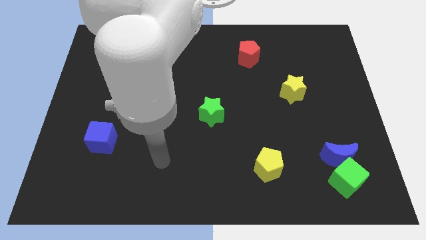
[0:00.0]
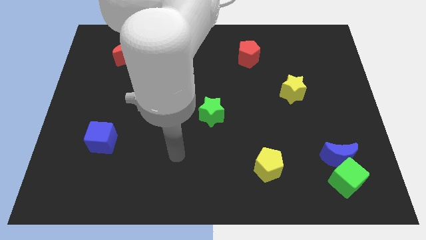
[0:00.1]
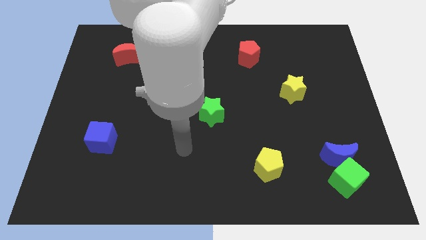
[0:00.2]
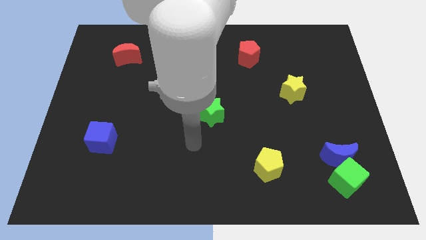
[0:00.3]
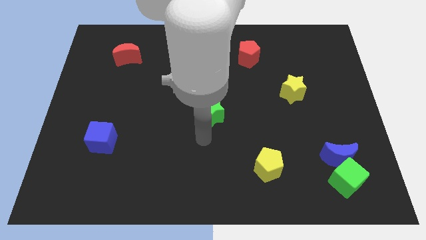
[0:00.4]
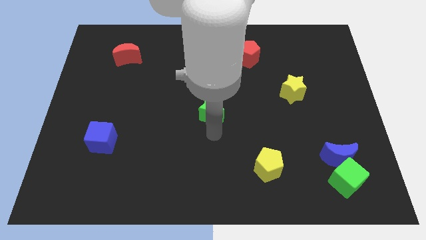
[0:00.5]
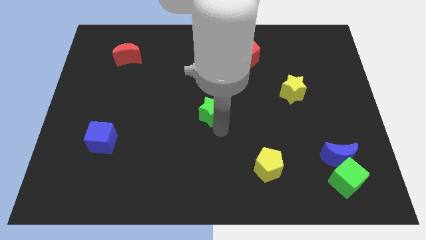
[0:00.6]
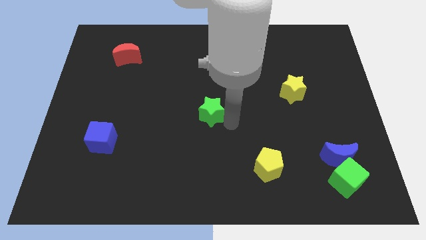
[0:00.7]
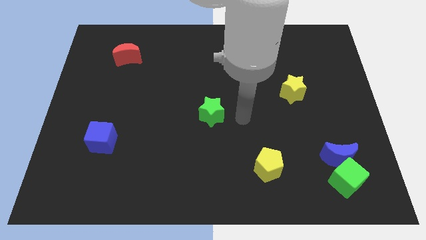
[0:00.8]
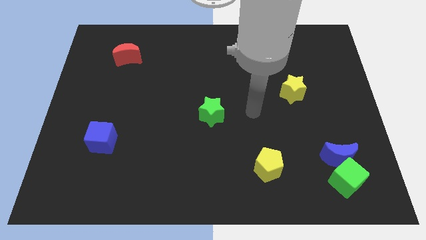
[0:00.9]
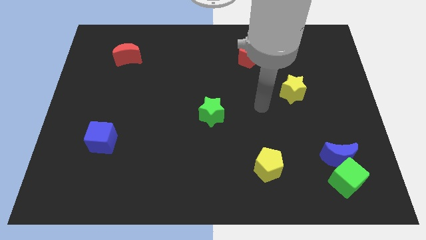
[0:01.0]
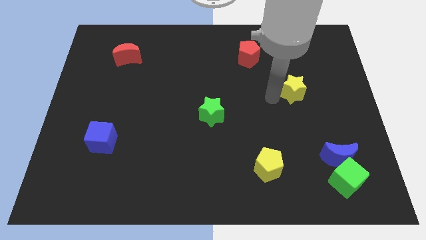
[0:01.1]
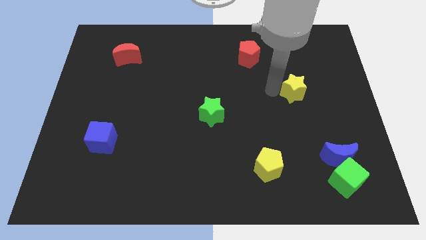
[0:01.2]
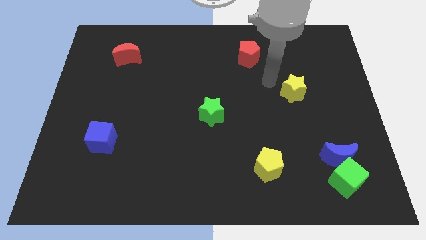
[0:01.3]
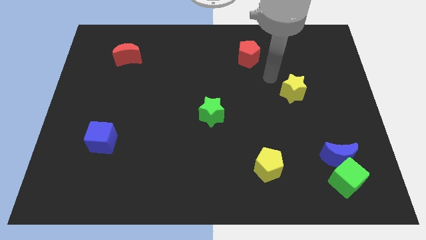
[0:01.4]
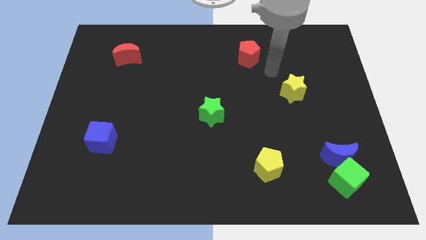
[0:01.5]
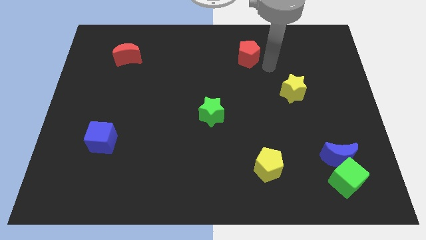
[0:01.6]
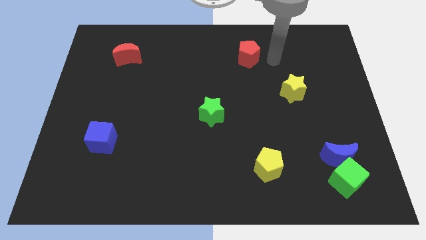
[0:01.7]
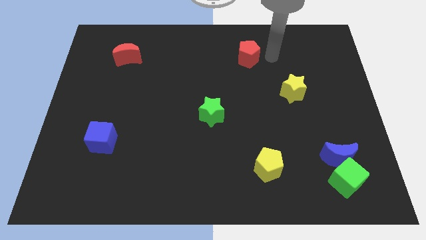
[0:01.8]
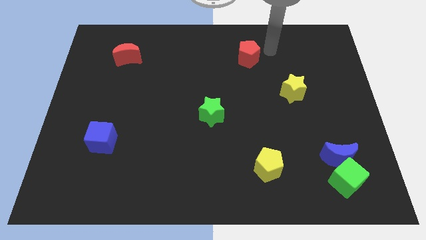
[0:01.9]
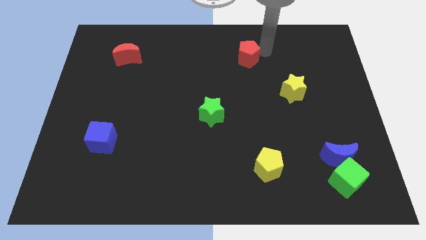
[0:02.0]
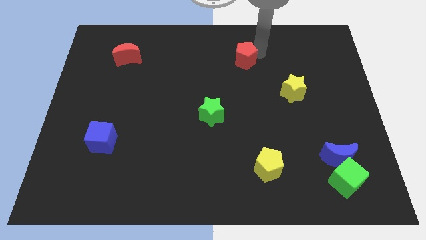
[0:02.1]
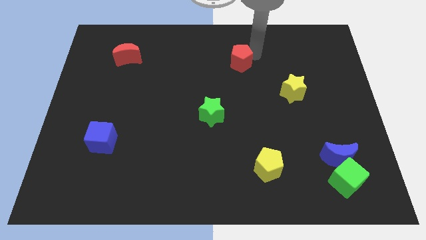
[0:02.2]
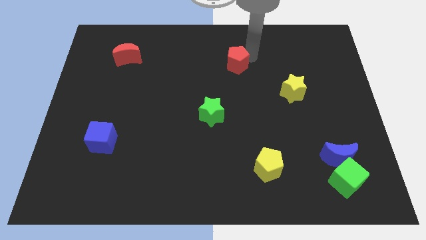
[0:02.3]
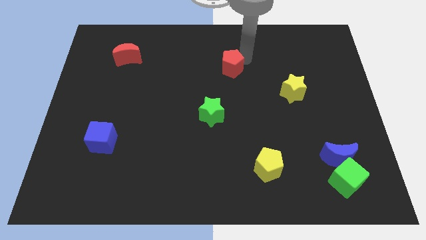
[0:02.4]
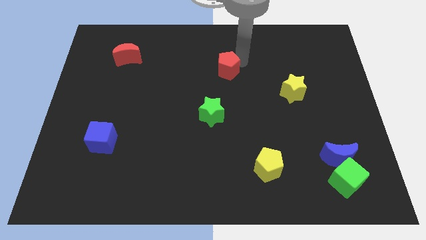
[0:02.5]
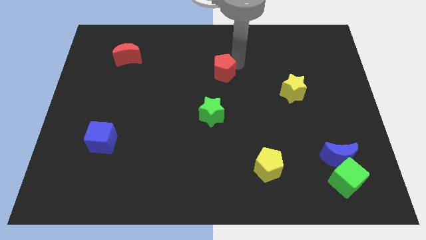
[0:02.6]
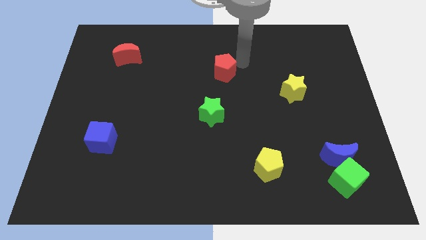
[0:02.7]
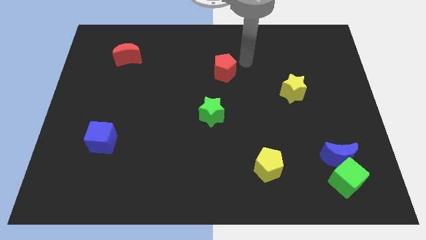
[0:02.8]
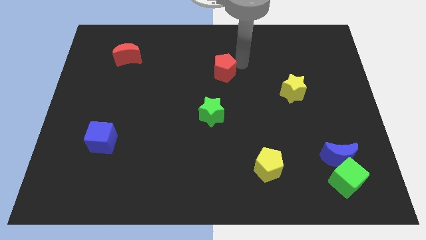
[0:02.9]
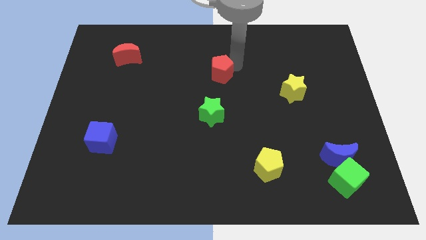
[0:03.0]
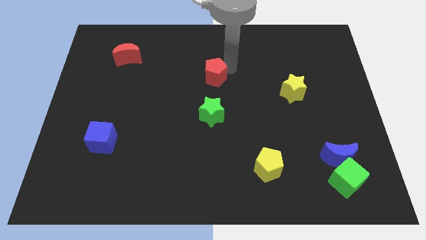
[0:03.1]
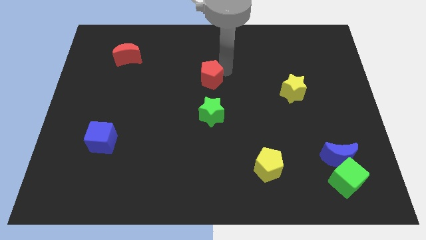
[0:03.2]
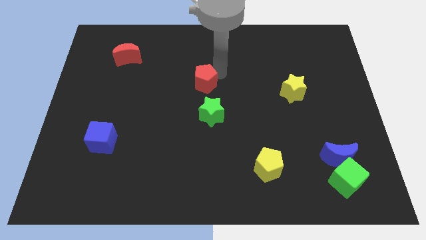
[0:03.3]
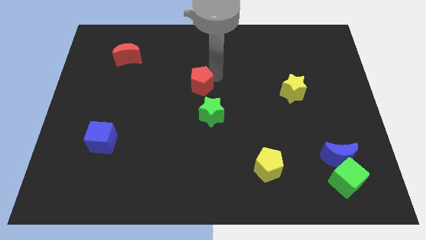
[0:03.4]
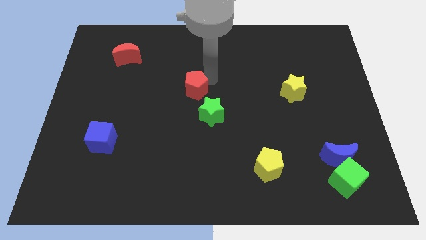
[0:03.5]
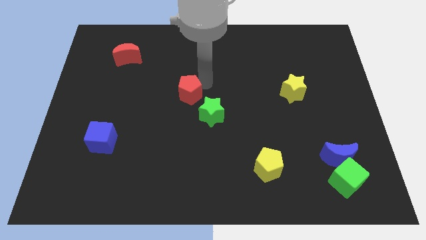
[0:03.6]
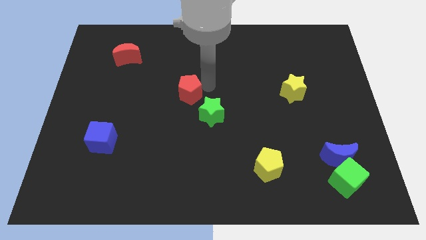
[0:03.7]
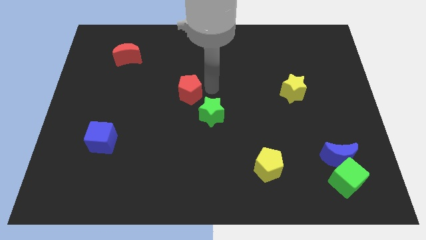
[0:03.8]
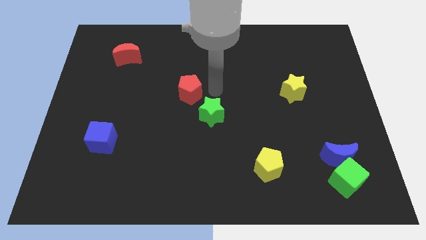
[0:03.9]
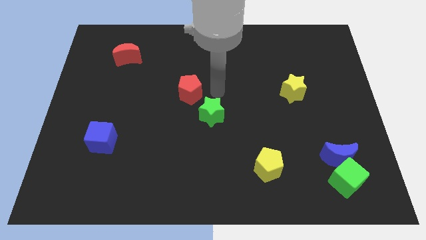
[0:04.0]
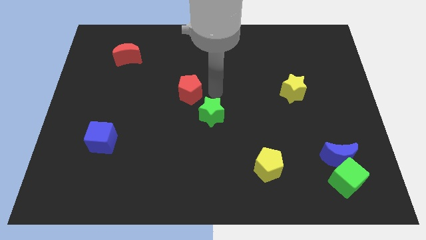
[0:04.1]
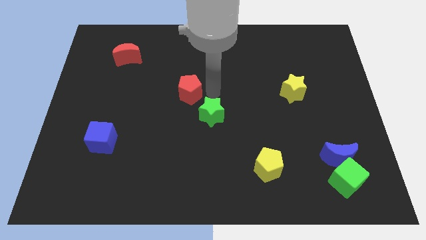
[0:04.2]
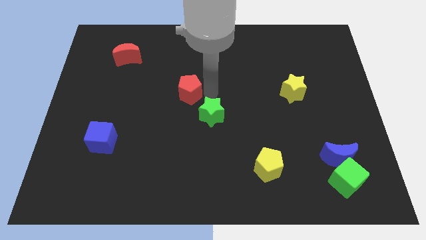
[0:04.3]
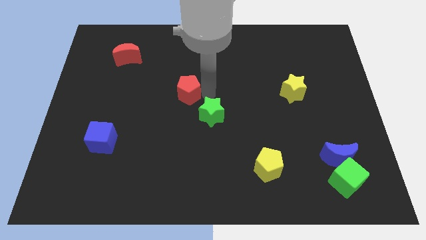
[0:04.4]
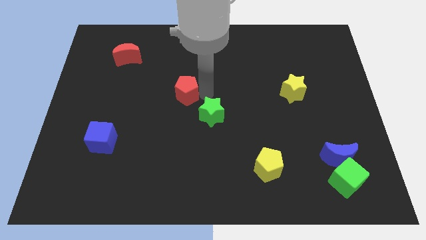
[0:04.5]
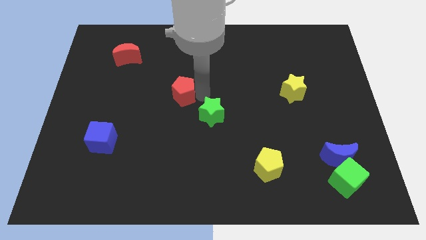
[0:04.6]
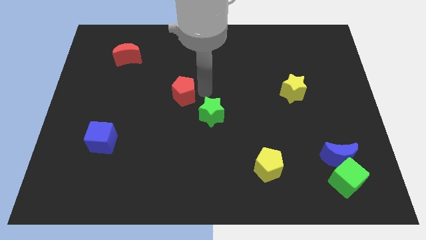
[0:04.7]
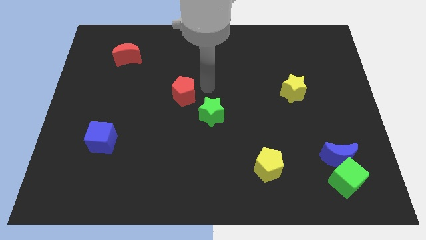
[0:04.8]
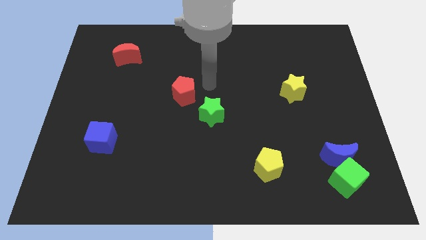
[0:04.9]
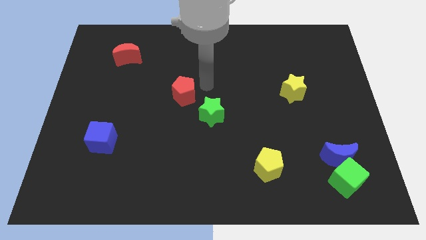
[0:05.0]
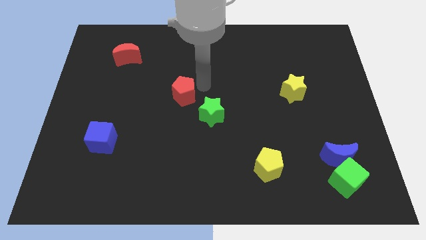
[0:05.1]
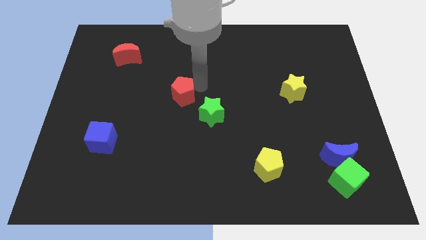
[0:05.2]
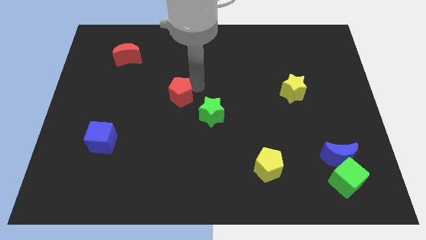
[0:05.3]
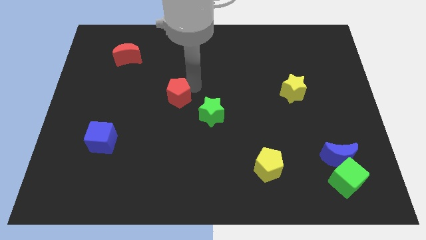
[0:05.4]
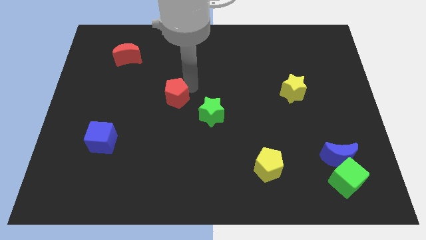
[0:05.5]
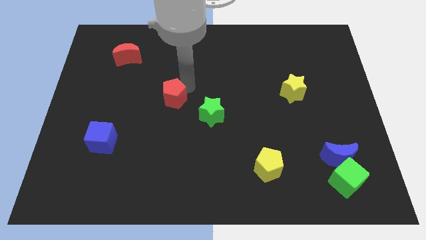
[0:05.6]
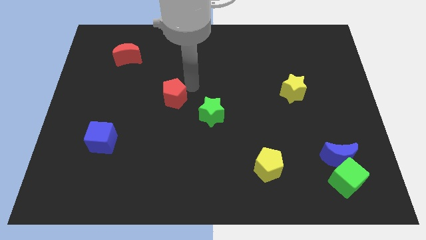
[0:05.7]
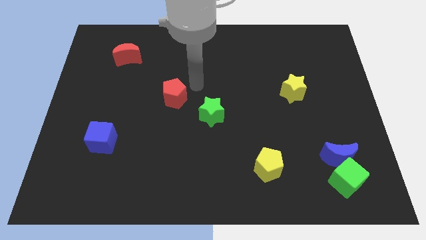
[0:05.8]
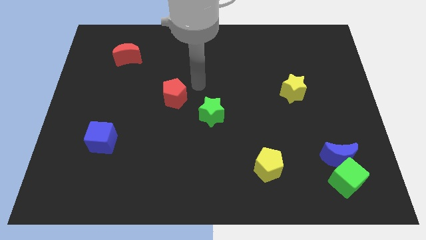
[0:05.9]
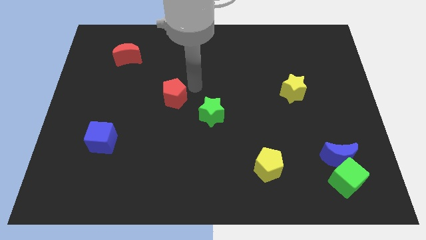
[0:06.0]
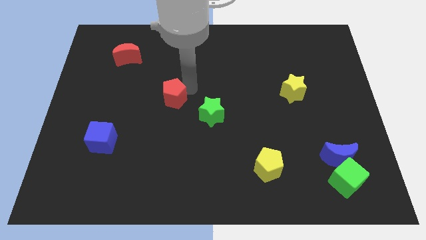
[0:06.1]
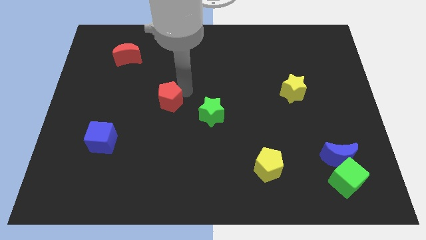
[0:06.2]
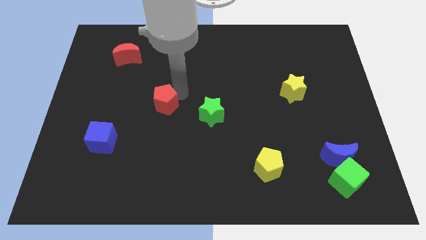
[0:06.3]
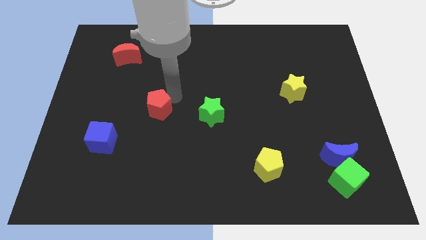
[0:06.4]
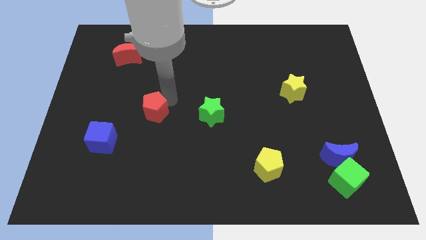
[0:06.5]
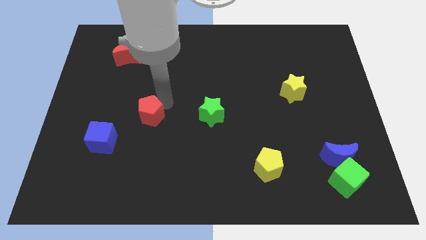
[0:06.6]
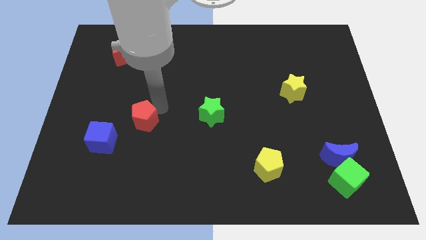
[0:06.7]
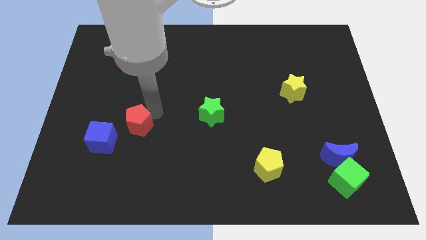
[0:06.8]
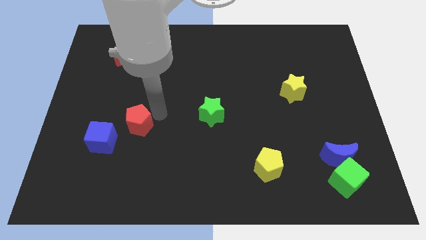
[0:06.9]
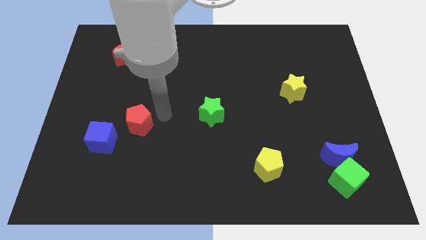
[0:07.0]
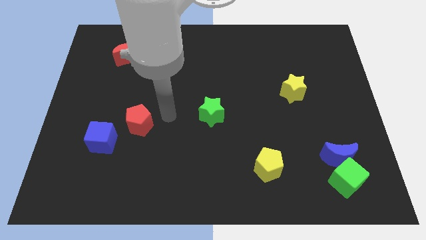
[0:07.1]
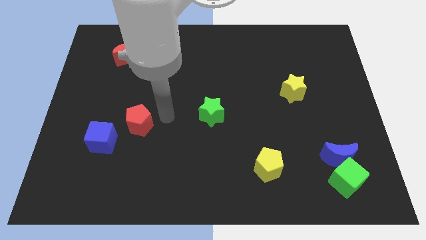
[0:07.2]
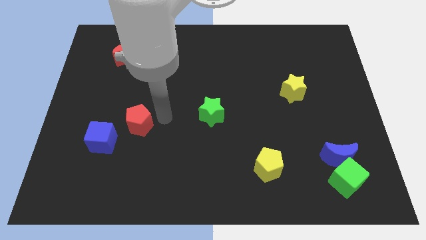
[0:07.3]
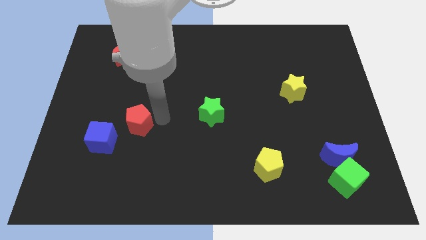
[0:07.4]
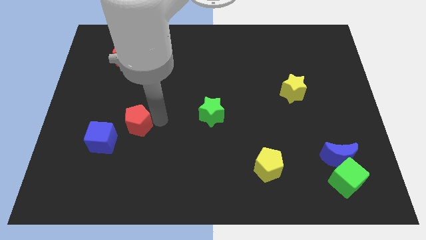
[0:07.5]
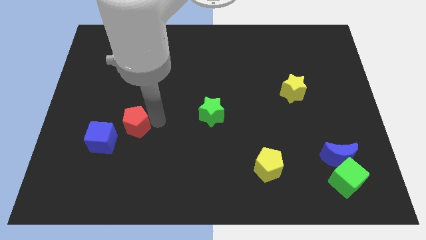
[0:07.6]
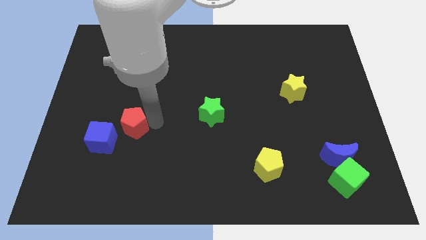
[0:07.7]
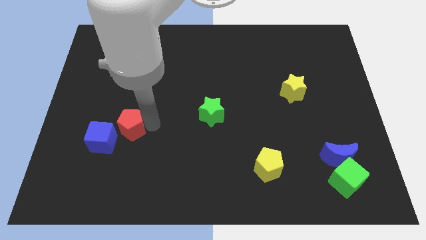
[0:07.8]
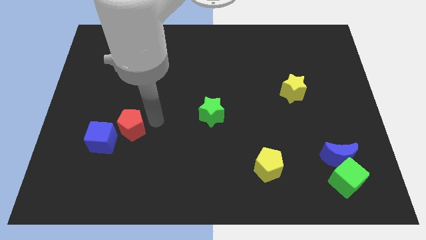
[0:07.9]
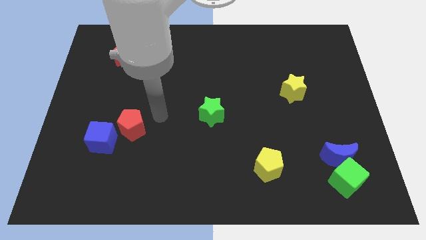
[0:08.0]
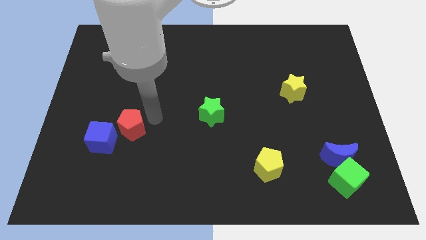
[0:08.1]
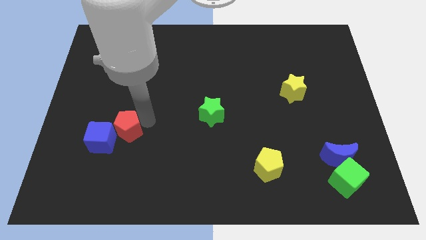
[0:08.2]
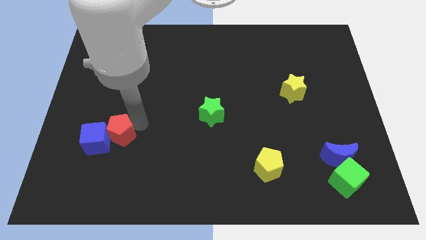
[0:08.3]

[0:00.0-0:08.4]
put the red pentagon towards the blue cube
